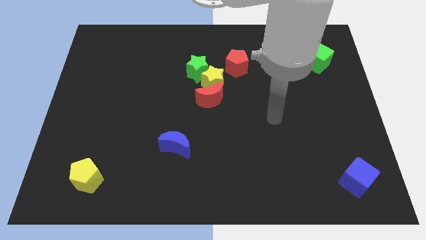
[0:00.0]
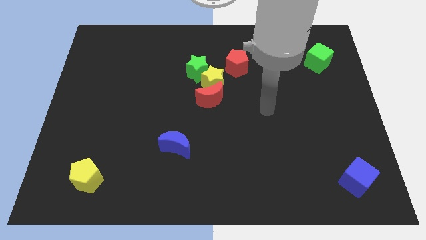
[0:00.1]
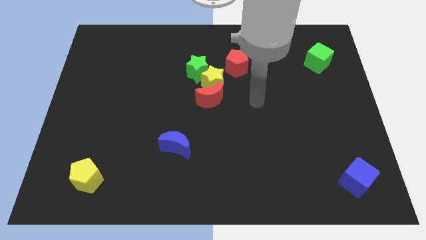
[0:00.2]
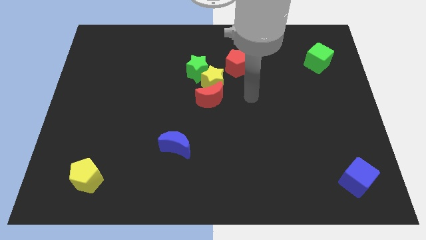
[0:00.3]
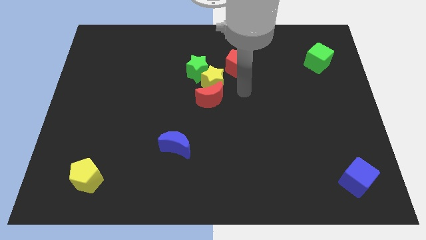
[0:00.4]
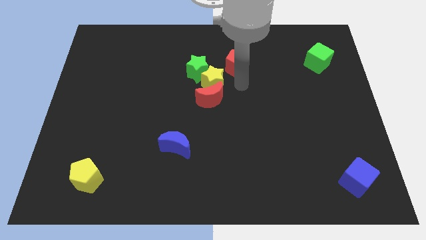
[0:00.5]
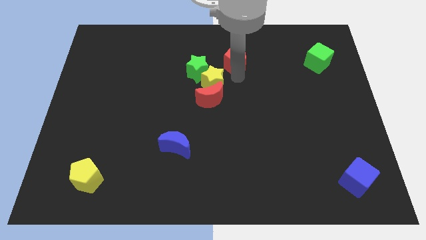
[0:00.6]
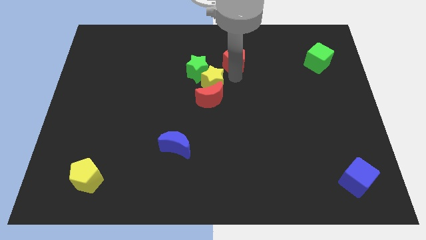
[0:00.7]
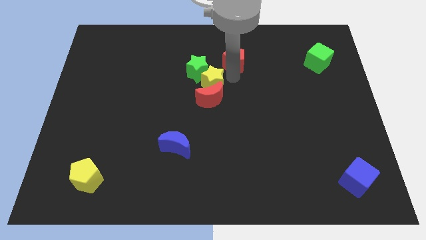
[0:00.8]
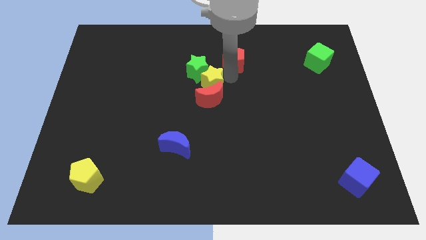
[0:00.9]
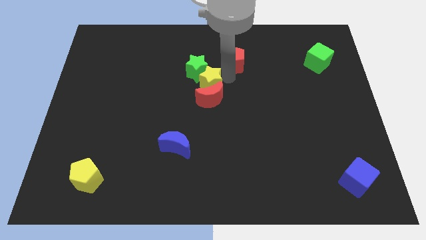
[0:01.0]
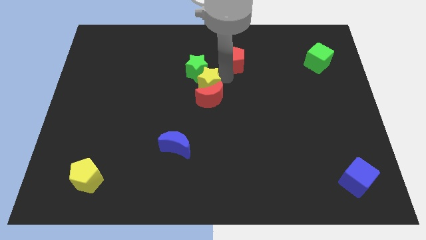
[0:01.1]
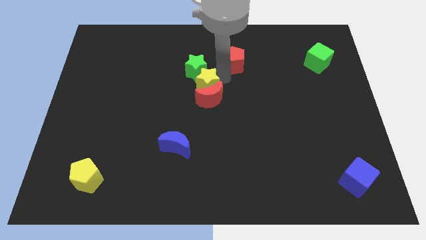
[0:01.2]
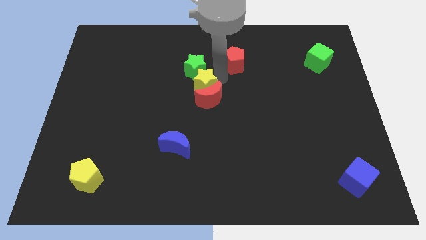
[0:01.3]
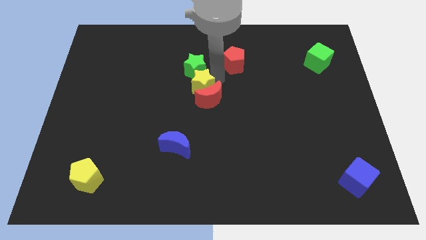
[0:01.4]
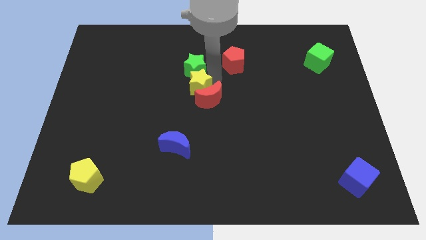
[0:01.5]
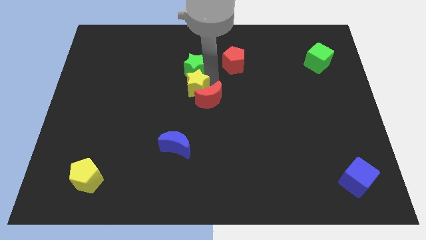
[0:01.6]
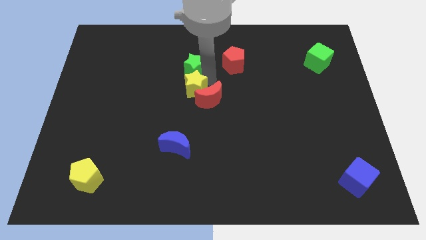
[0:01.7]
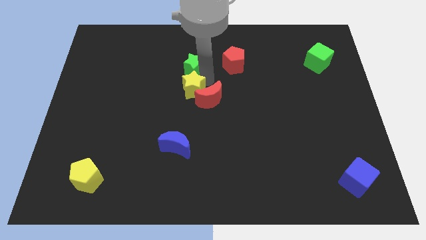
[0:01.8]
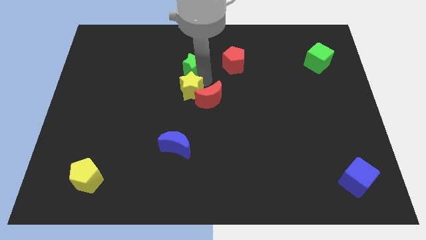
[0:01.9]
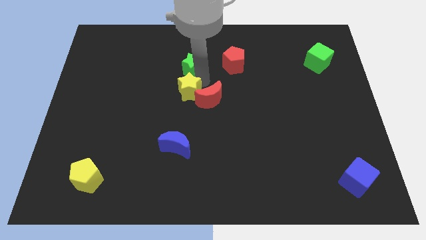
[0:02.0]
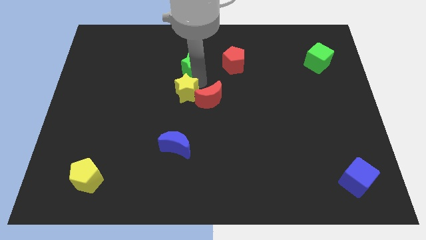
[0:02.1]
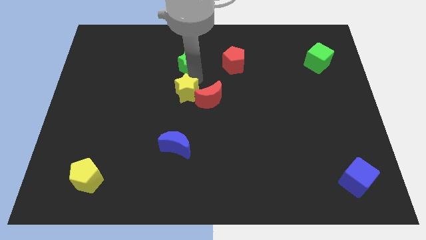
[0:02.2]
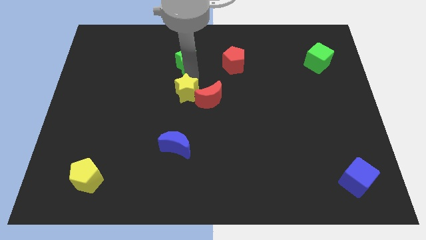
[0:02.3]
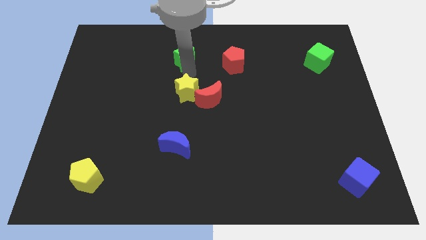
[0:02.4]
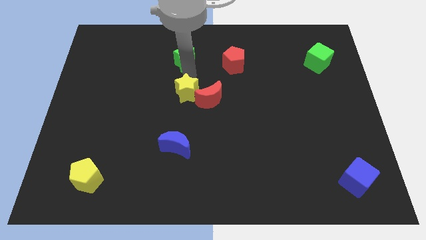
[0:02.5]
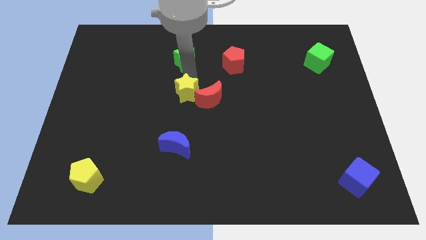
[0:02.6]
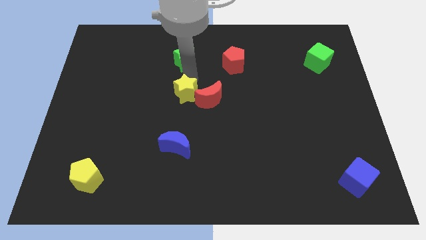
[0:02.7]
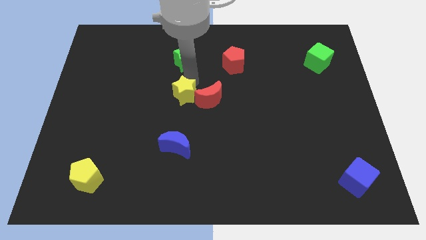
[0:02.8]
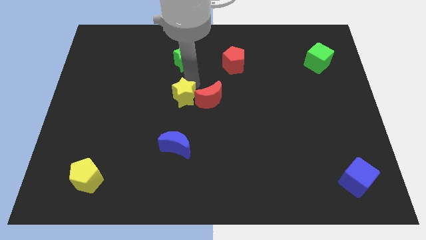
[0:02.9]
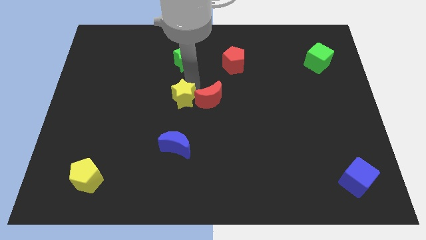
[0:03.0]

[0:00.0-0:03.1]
separate the yellow star from the red moon, green star, and red pentagon

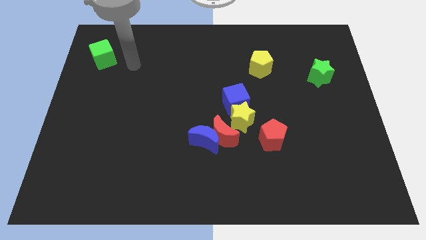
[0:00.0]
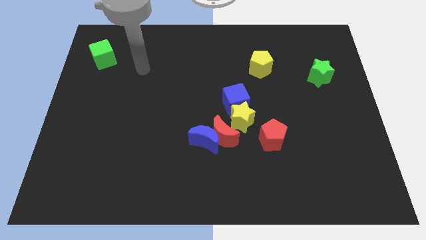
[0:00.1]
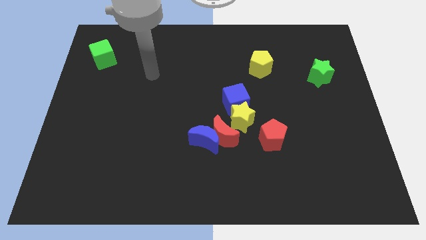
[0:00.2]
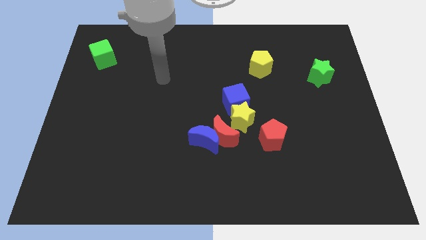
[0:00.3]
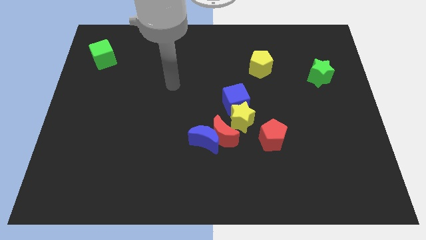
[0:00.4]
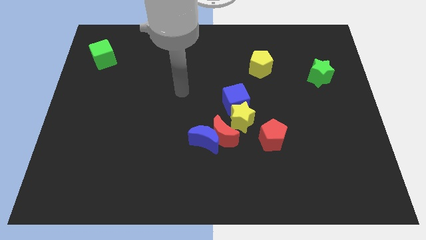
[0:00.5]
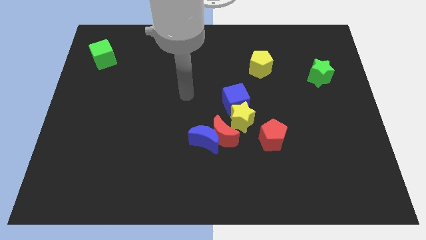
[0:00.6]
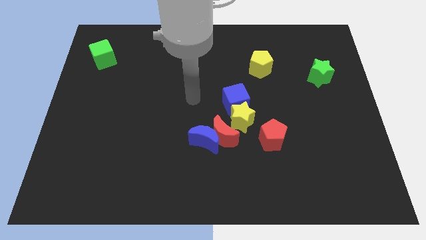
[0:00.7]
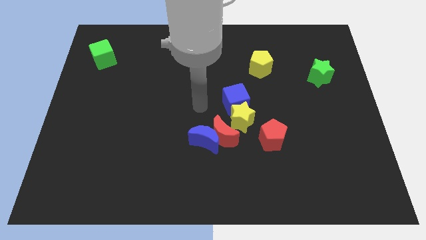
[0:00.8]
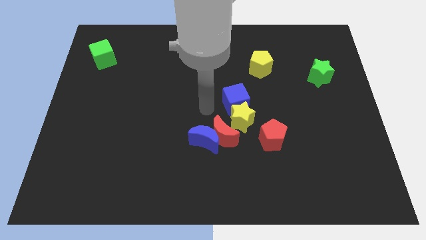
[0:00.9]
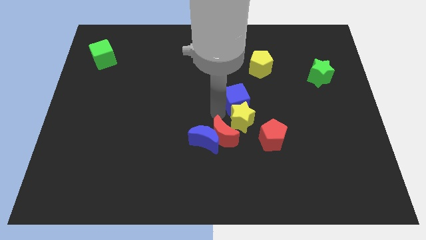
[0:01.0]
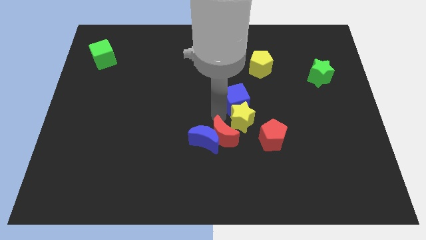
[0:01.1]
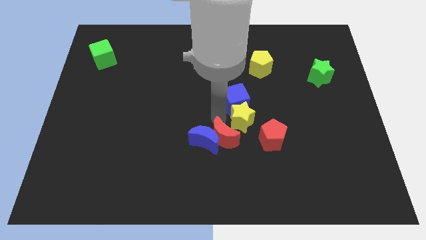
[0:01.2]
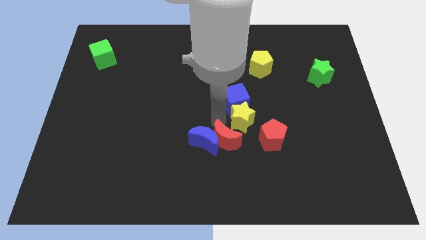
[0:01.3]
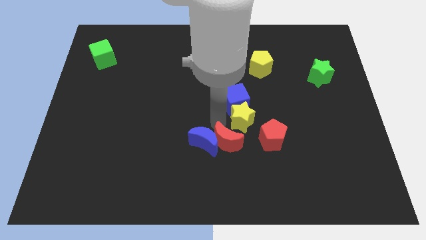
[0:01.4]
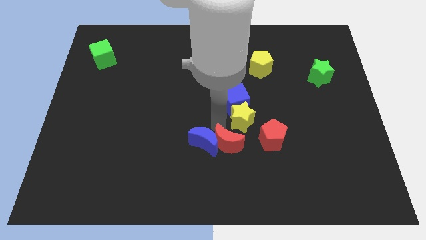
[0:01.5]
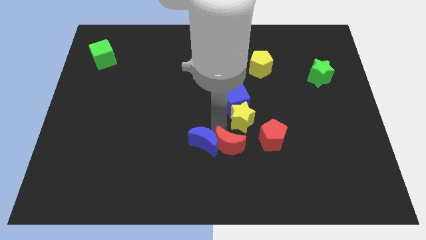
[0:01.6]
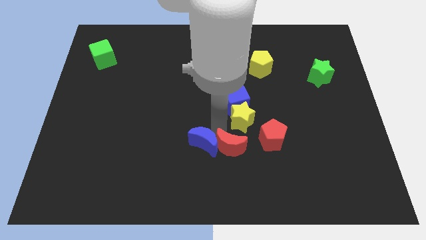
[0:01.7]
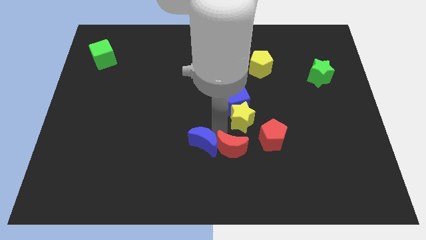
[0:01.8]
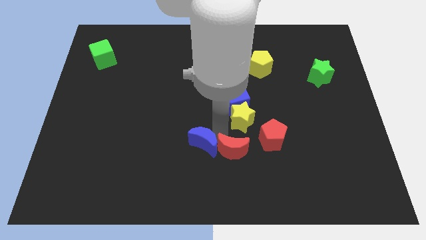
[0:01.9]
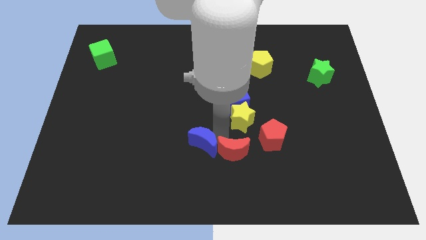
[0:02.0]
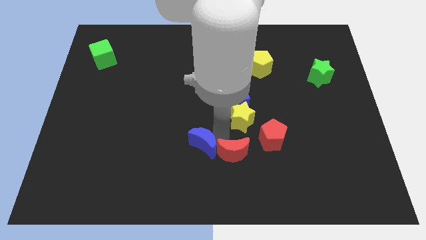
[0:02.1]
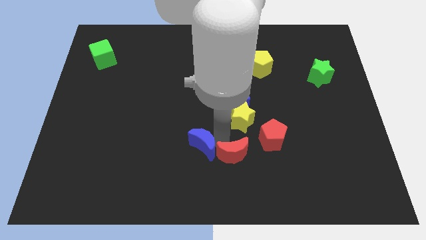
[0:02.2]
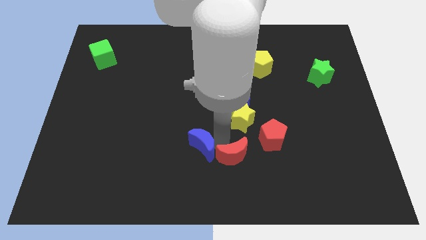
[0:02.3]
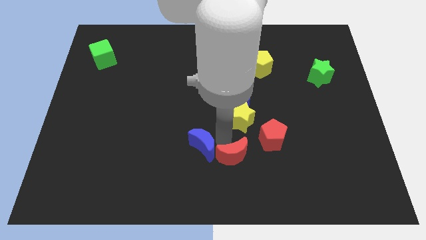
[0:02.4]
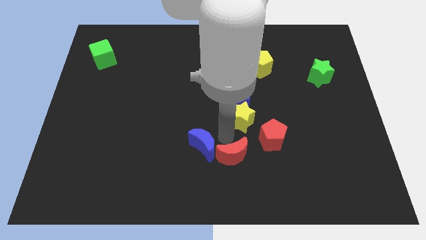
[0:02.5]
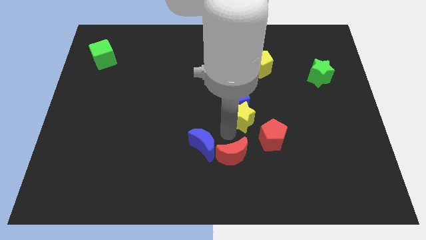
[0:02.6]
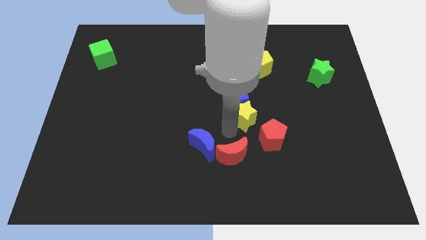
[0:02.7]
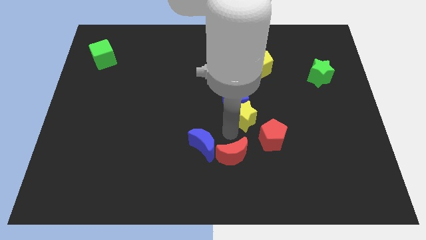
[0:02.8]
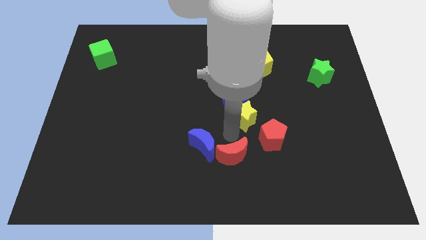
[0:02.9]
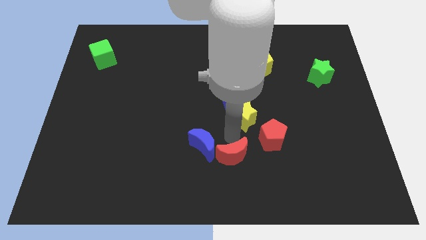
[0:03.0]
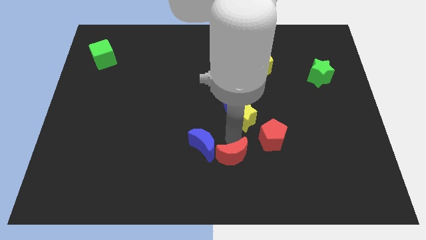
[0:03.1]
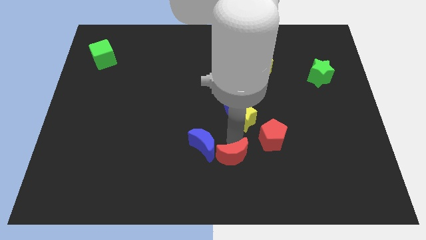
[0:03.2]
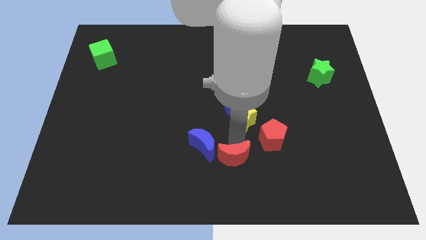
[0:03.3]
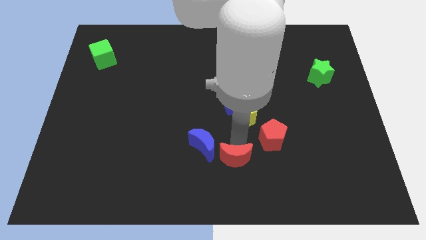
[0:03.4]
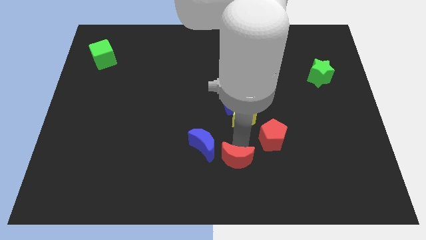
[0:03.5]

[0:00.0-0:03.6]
pull the red moon apart from the blue moon, yellow star, and blue cube

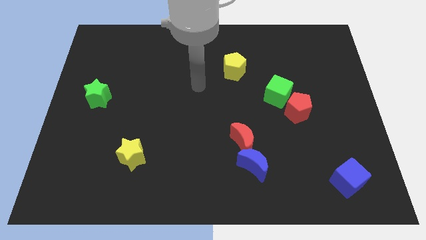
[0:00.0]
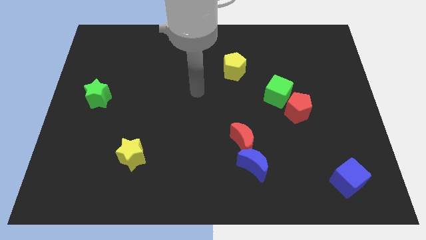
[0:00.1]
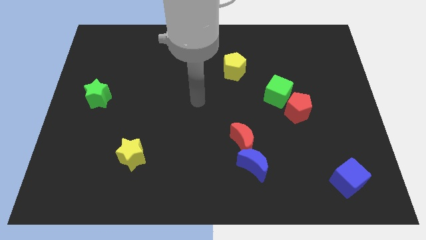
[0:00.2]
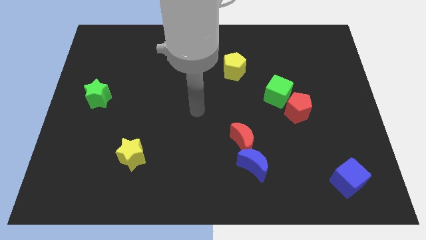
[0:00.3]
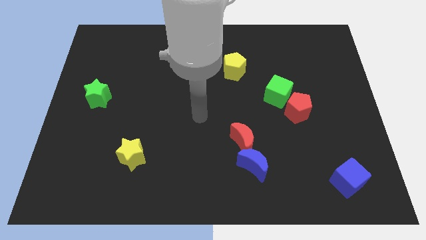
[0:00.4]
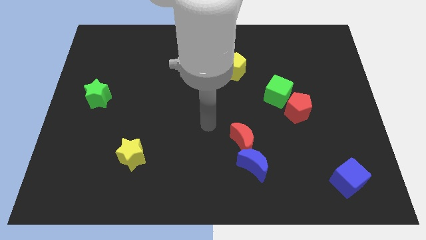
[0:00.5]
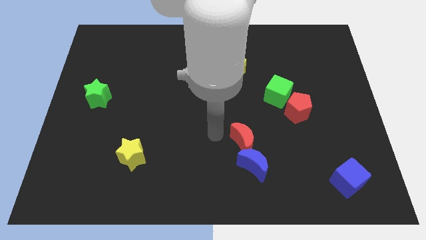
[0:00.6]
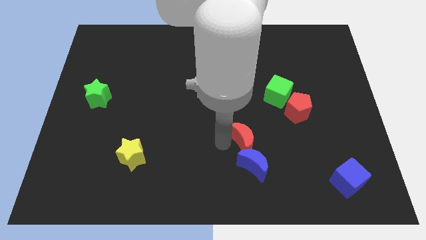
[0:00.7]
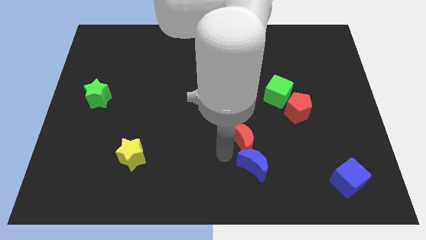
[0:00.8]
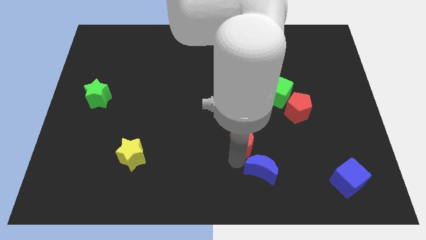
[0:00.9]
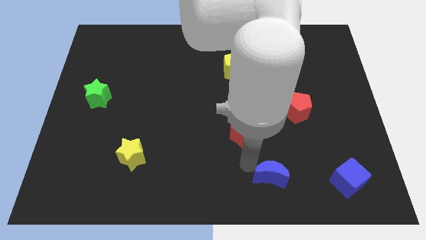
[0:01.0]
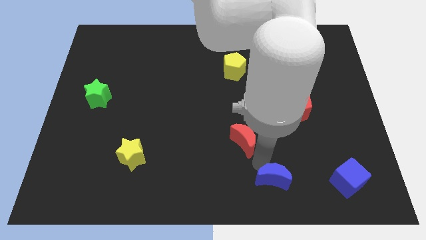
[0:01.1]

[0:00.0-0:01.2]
separate the red moon from the blue moon

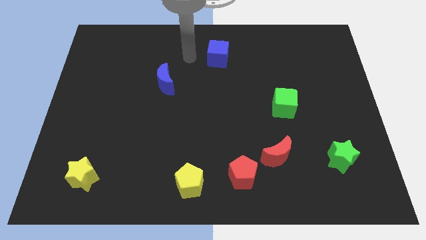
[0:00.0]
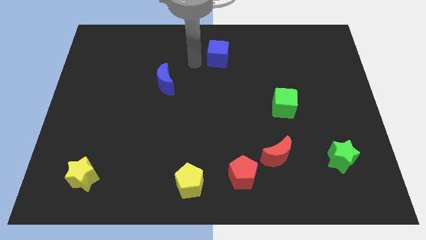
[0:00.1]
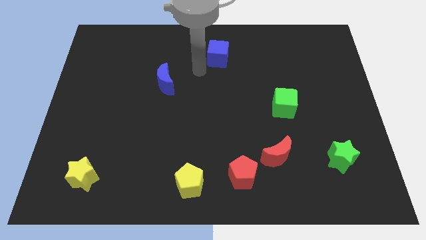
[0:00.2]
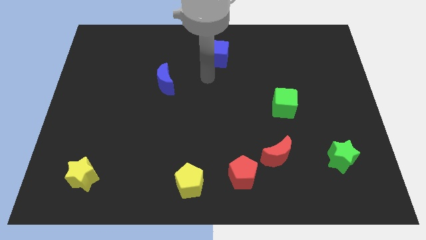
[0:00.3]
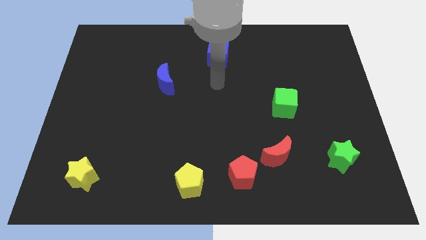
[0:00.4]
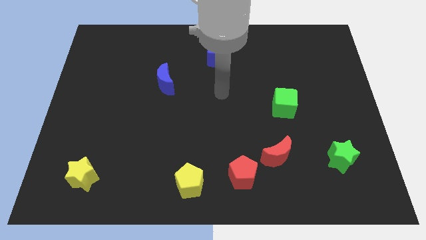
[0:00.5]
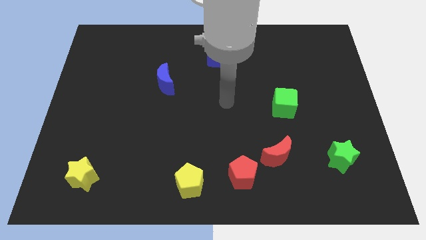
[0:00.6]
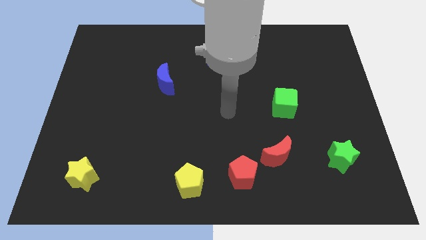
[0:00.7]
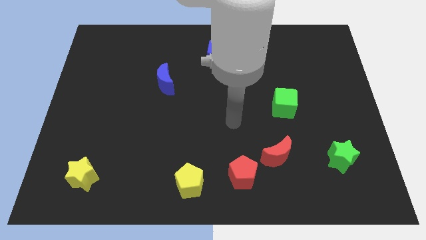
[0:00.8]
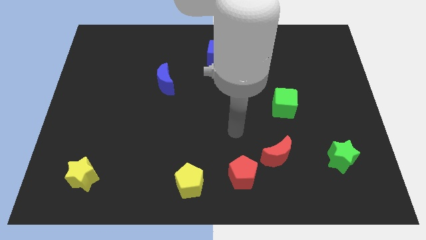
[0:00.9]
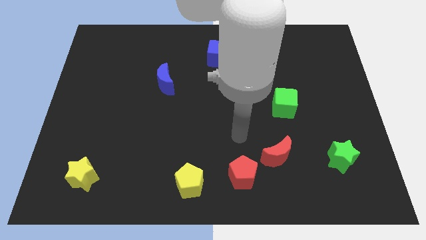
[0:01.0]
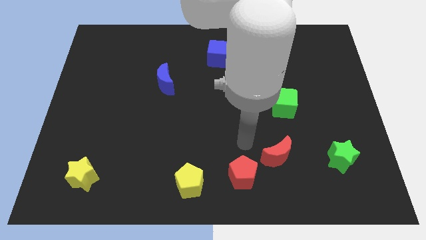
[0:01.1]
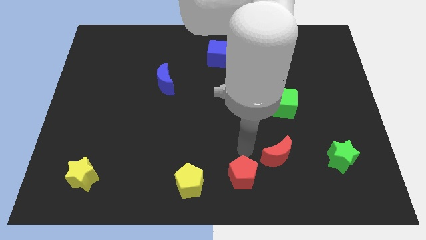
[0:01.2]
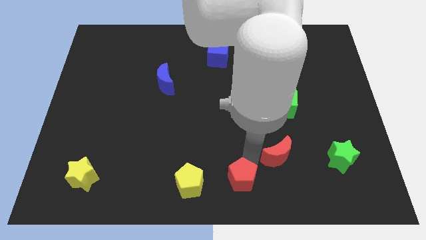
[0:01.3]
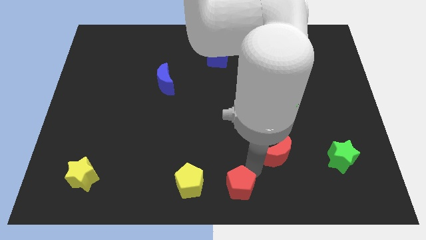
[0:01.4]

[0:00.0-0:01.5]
move the red moon away from the red pentagon
